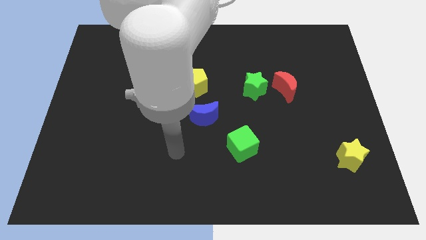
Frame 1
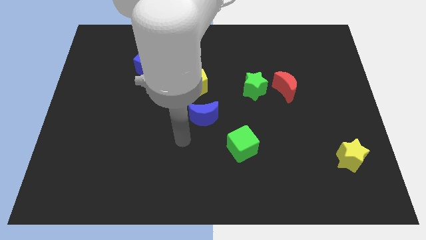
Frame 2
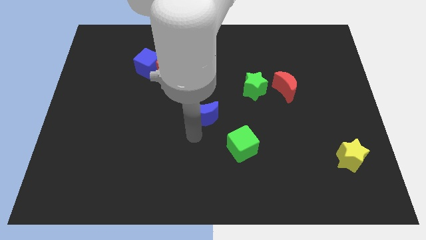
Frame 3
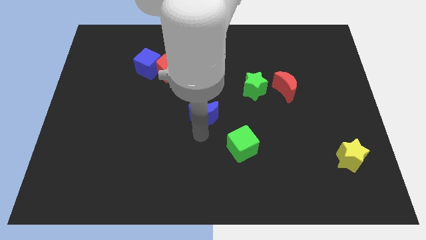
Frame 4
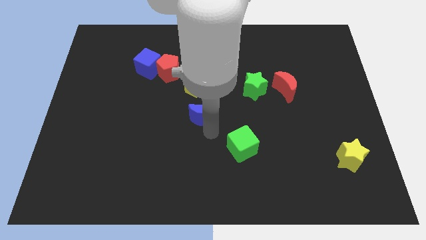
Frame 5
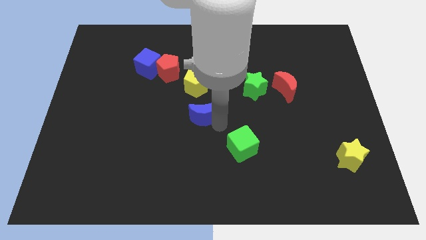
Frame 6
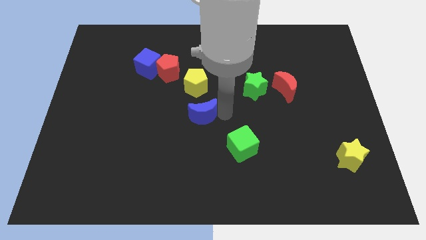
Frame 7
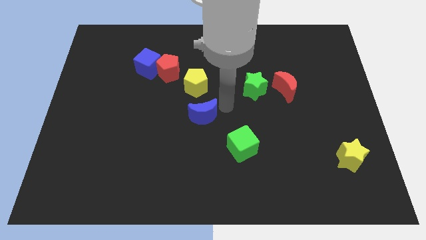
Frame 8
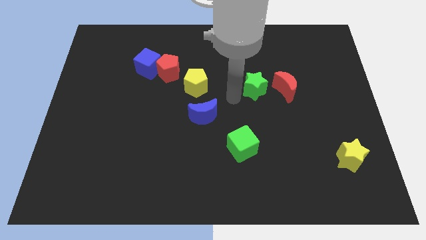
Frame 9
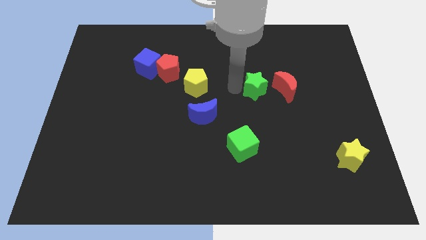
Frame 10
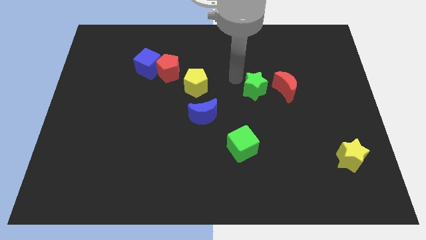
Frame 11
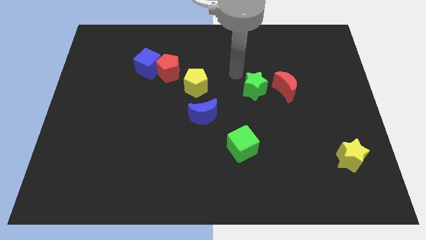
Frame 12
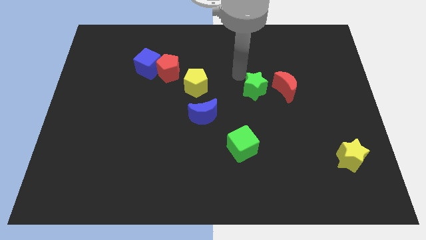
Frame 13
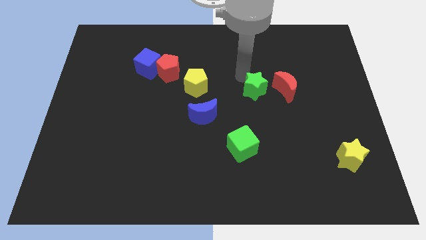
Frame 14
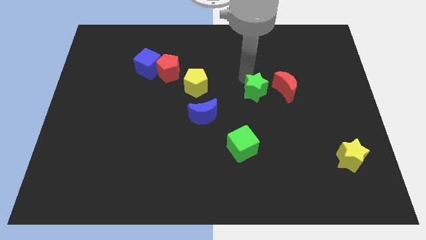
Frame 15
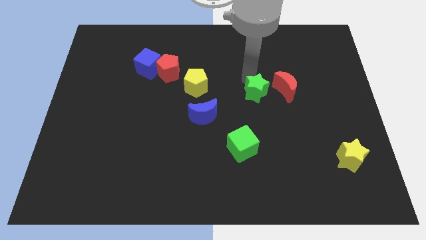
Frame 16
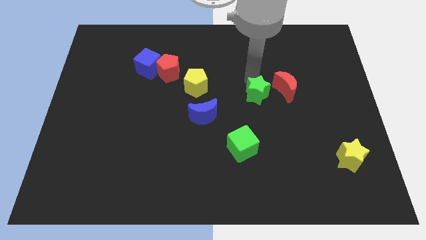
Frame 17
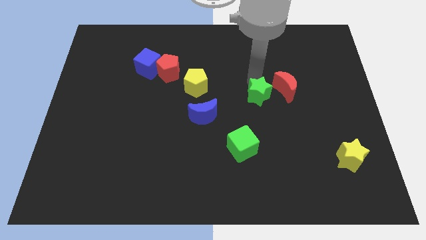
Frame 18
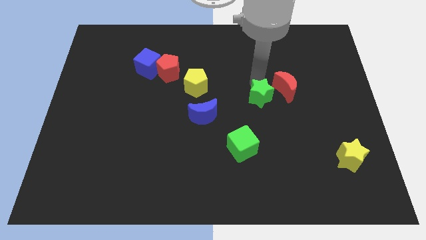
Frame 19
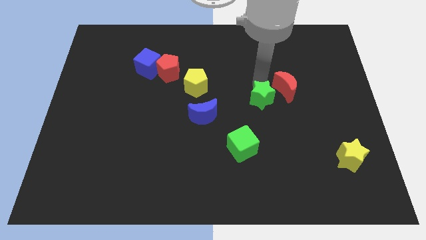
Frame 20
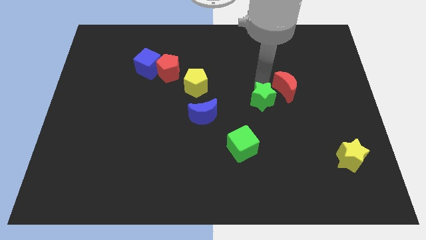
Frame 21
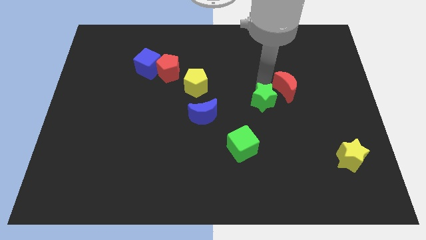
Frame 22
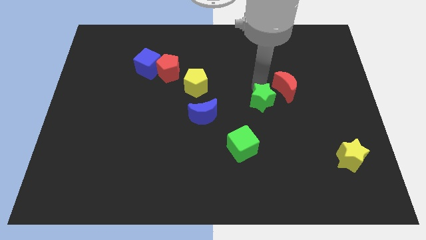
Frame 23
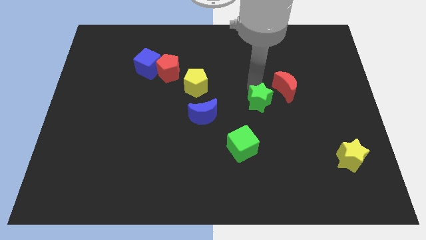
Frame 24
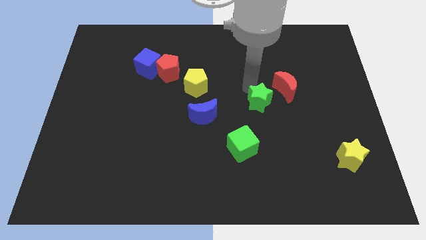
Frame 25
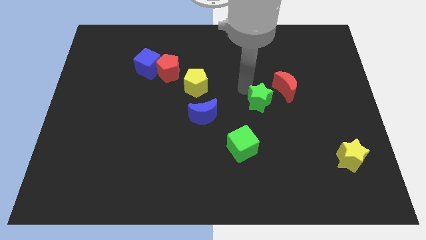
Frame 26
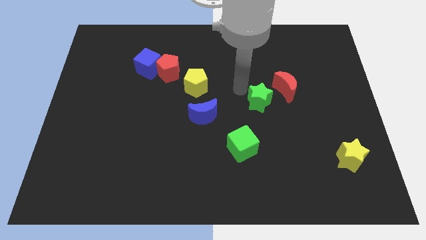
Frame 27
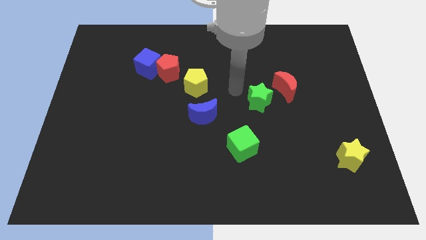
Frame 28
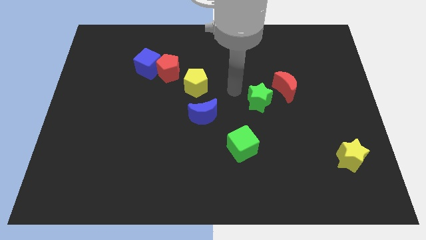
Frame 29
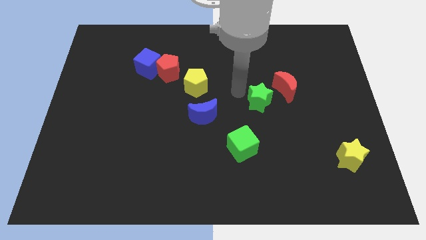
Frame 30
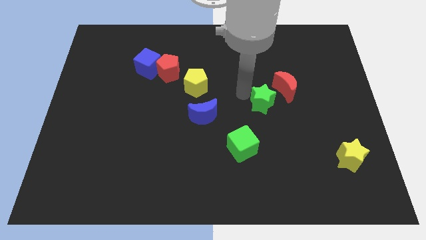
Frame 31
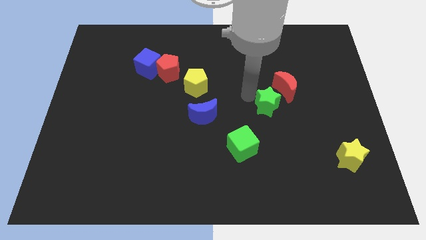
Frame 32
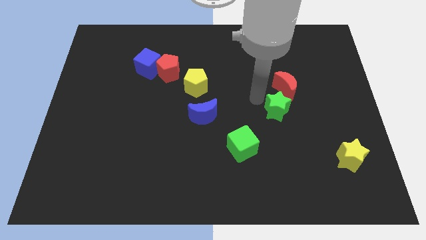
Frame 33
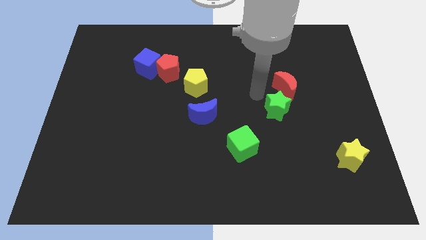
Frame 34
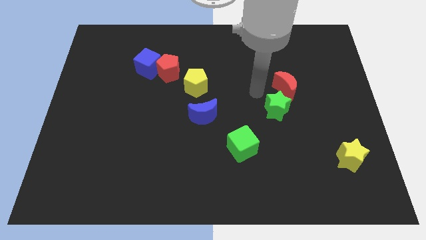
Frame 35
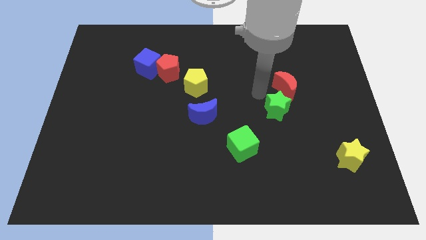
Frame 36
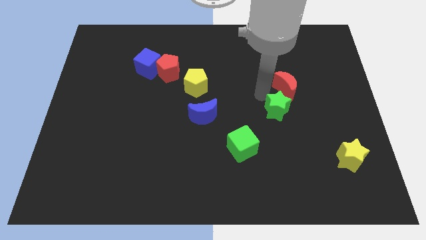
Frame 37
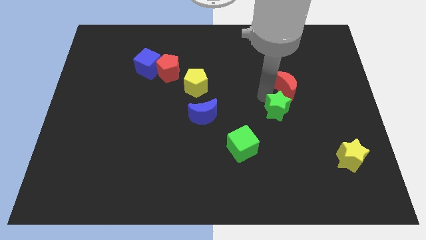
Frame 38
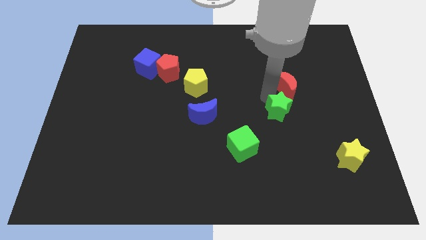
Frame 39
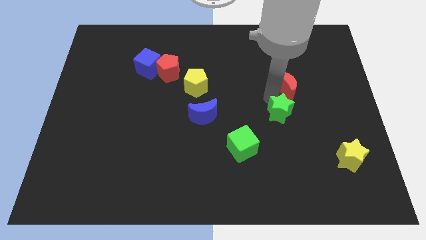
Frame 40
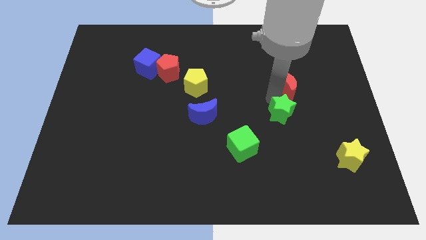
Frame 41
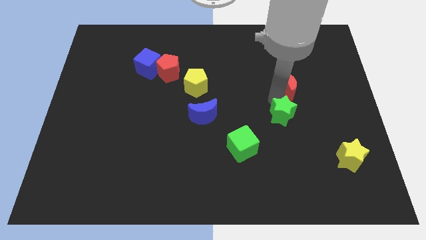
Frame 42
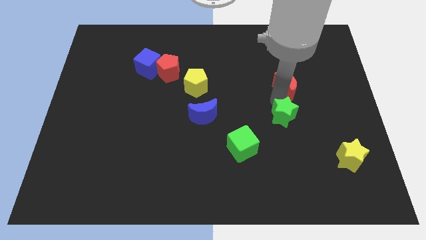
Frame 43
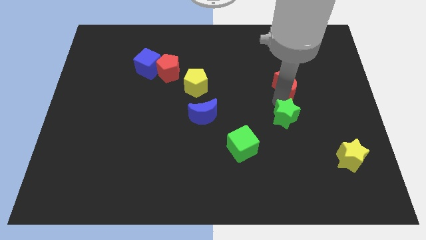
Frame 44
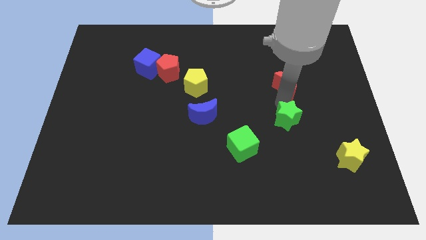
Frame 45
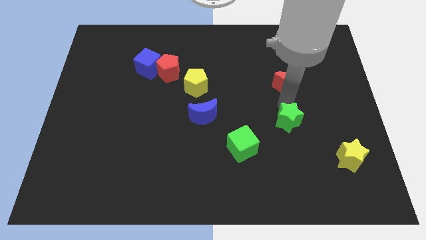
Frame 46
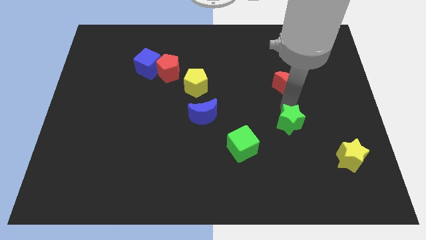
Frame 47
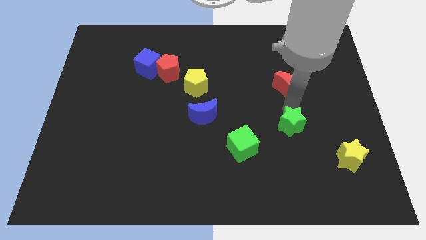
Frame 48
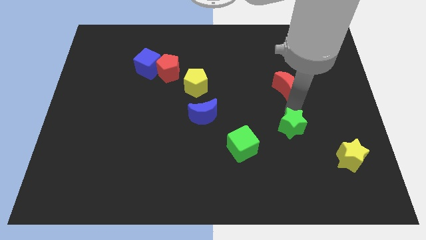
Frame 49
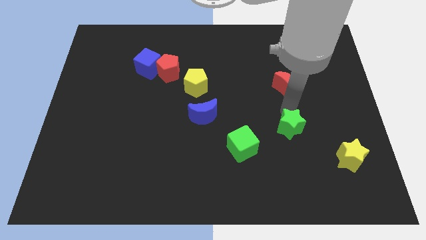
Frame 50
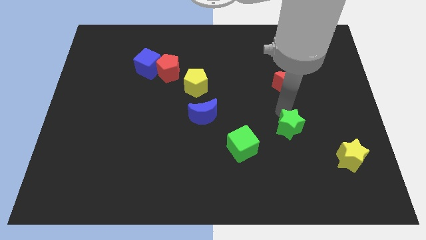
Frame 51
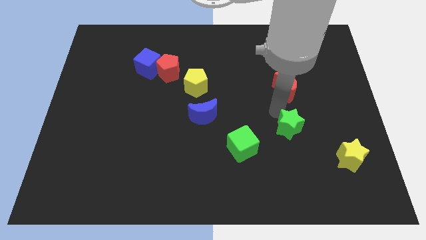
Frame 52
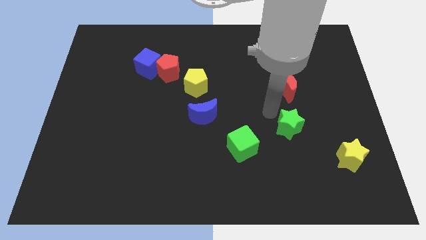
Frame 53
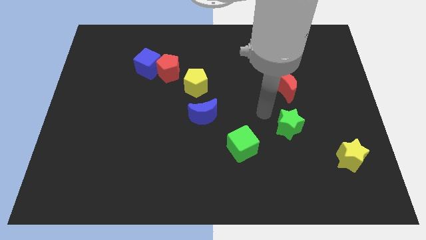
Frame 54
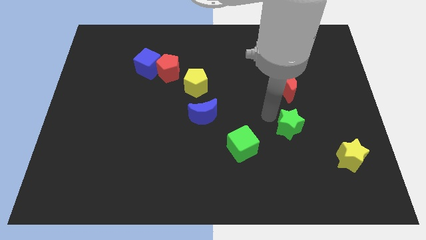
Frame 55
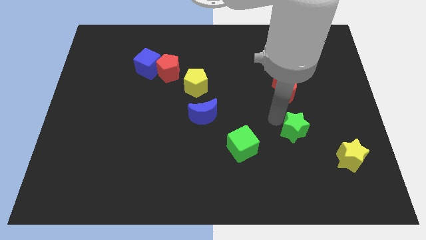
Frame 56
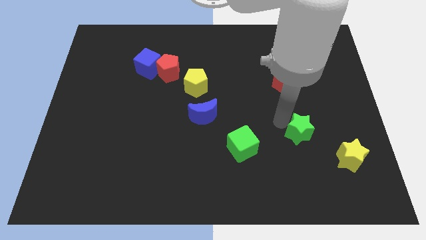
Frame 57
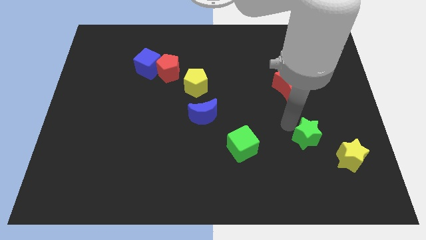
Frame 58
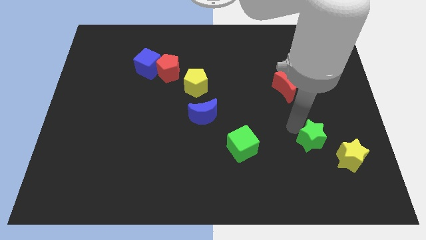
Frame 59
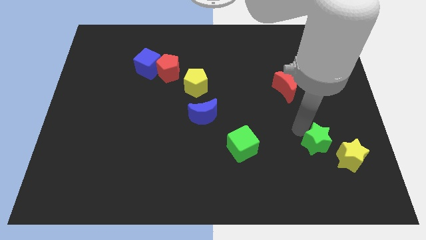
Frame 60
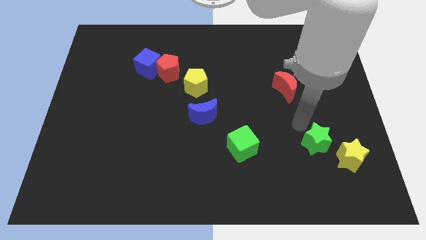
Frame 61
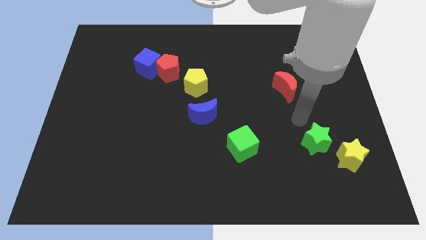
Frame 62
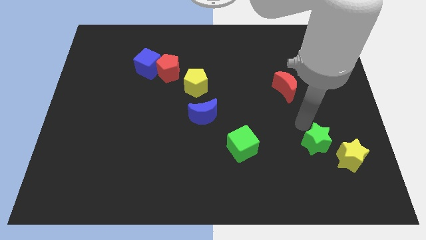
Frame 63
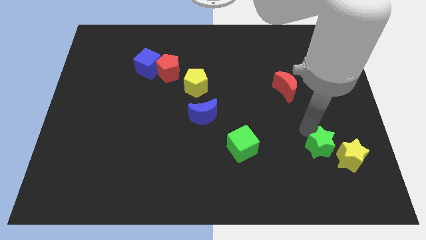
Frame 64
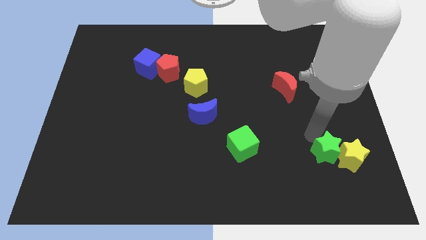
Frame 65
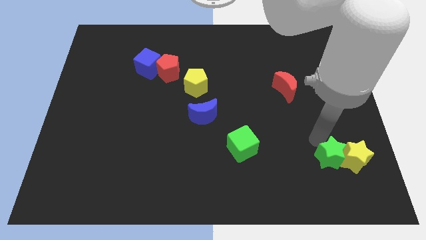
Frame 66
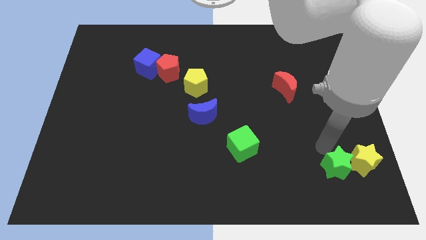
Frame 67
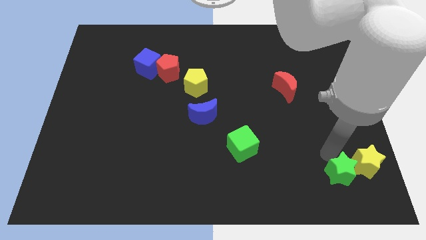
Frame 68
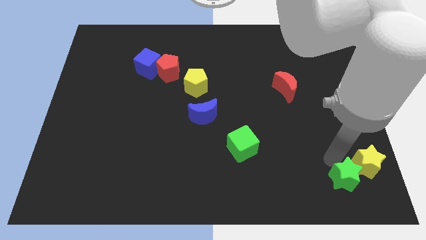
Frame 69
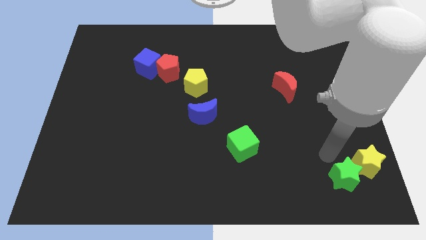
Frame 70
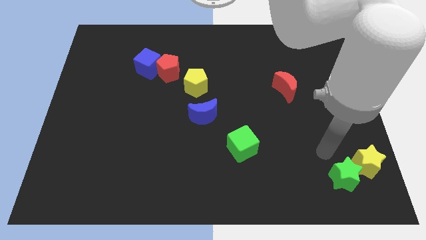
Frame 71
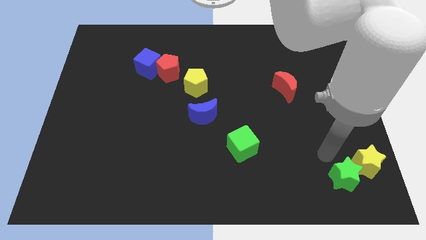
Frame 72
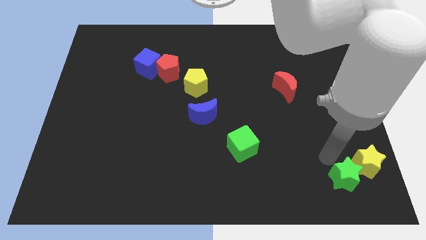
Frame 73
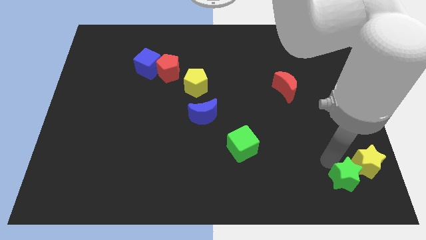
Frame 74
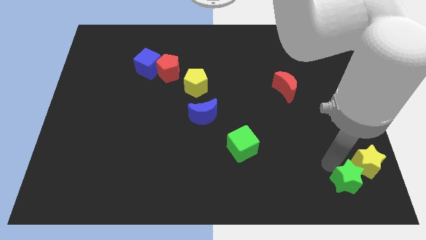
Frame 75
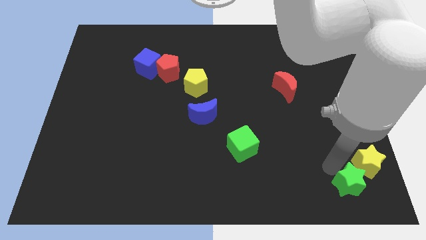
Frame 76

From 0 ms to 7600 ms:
slide the green star to the bottom right corner
